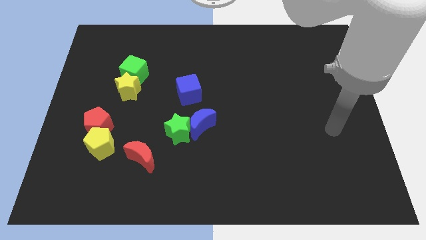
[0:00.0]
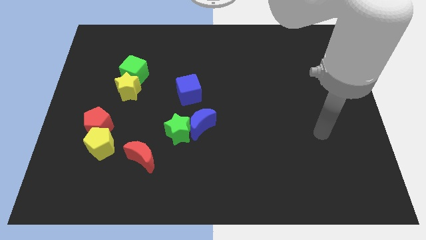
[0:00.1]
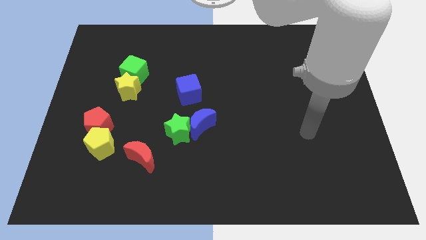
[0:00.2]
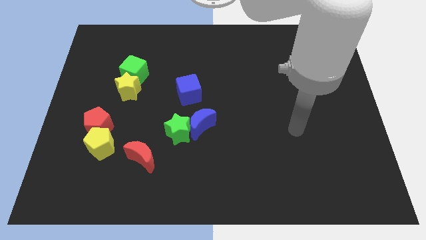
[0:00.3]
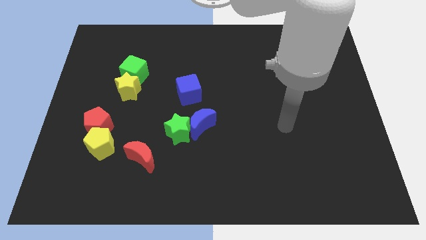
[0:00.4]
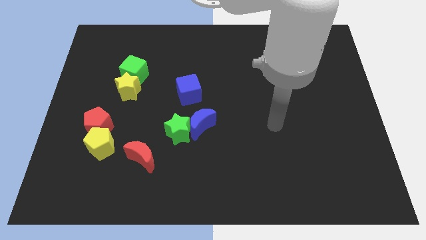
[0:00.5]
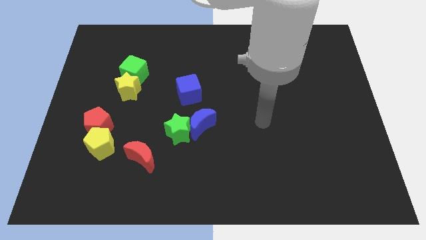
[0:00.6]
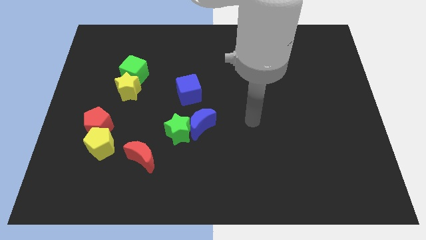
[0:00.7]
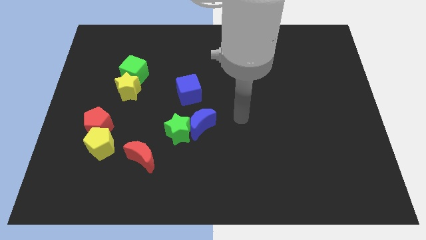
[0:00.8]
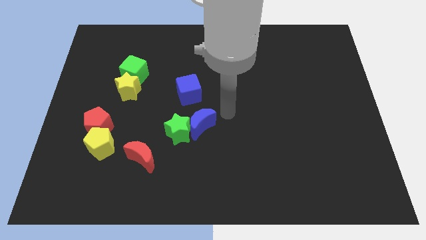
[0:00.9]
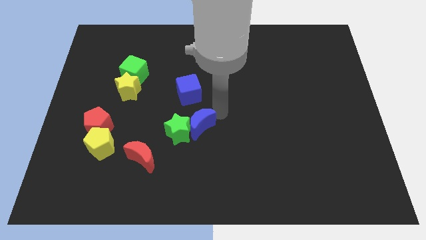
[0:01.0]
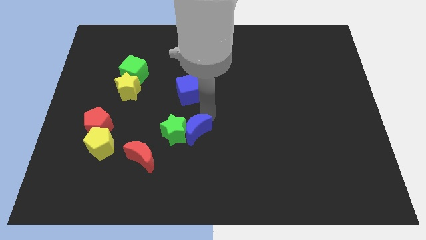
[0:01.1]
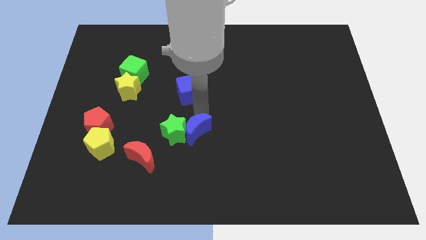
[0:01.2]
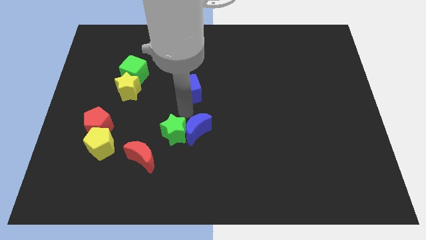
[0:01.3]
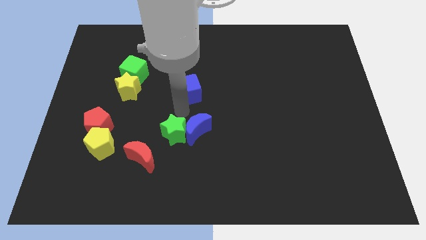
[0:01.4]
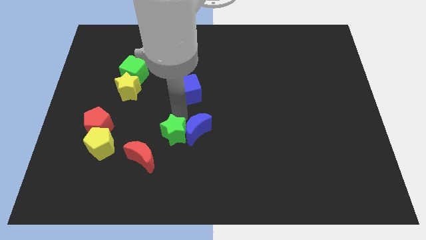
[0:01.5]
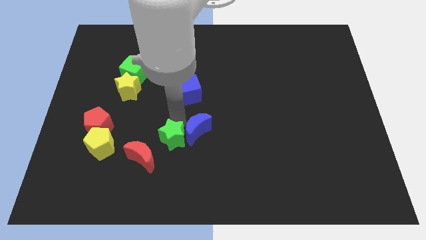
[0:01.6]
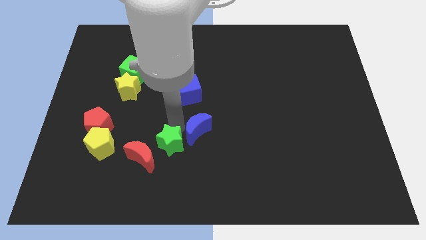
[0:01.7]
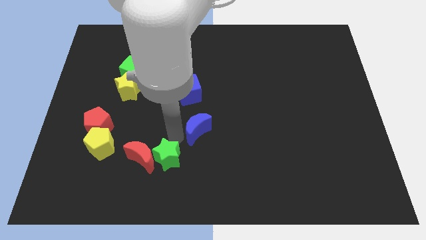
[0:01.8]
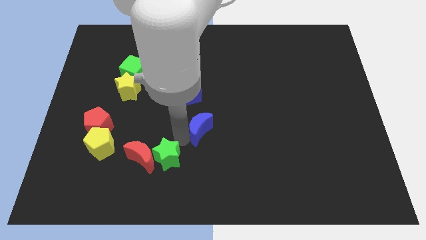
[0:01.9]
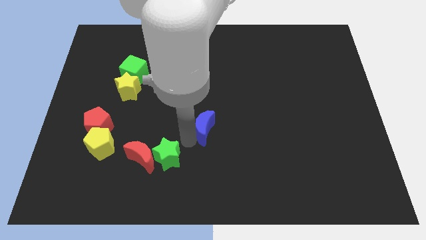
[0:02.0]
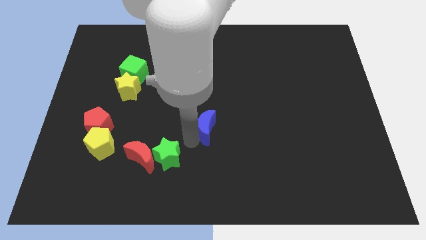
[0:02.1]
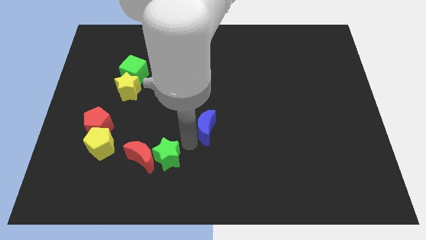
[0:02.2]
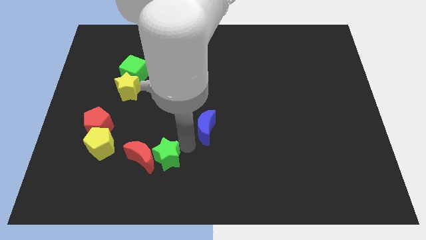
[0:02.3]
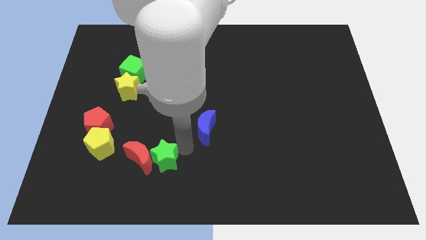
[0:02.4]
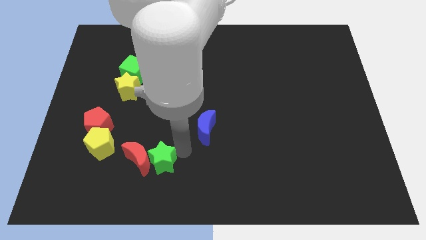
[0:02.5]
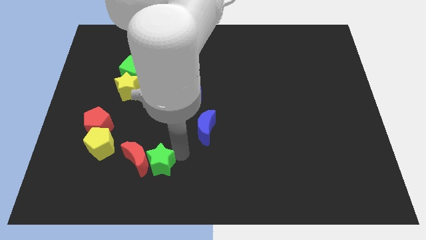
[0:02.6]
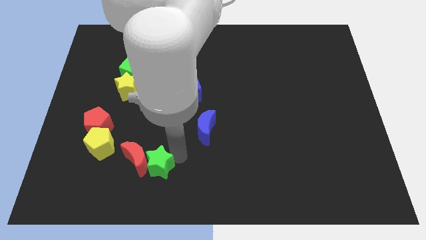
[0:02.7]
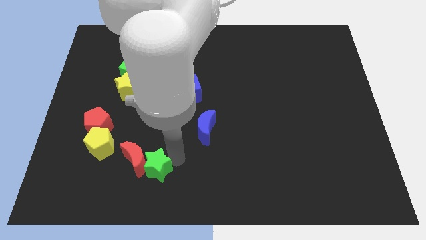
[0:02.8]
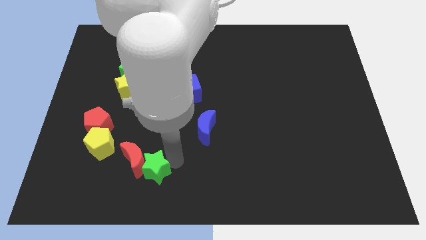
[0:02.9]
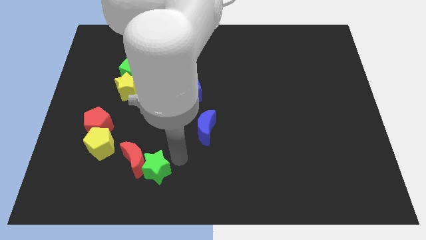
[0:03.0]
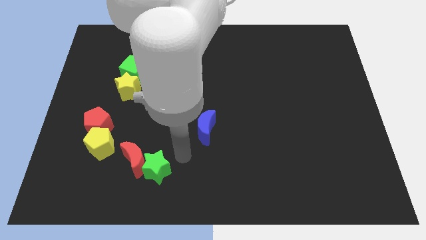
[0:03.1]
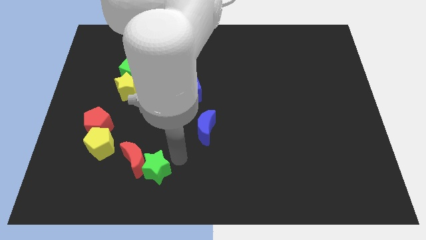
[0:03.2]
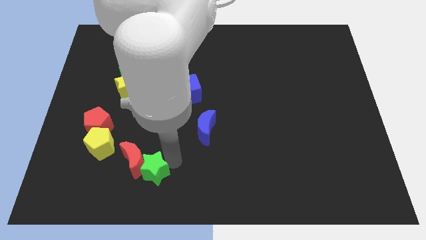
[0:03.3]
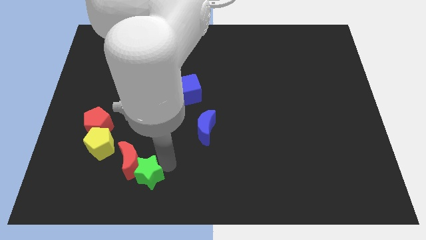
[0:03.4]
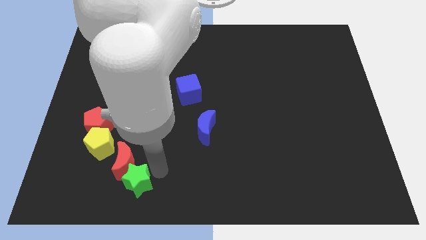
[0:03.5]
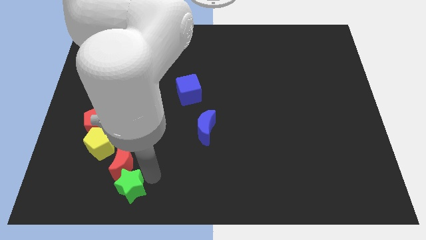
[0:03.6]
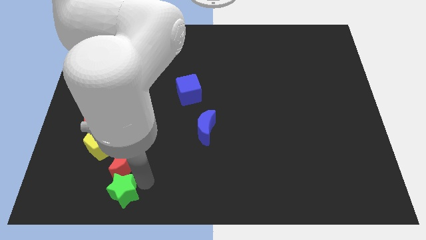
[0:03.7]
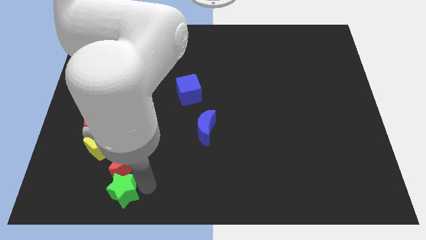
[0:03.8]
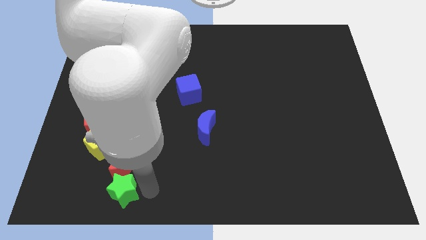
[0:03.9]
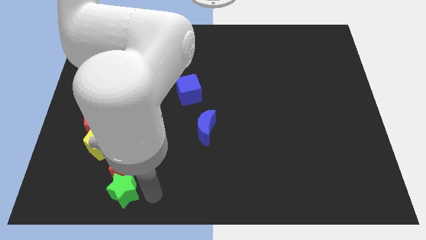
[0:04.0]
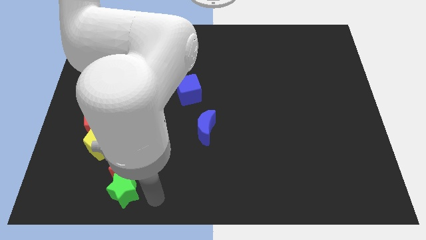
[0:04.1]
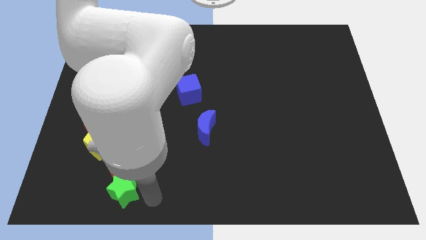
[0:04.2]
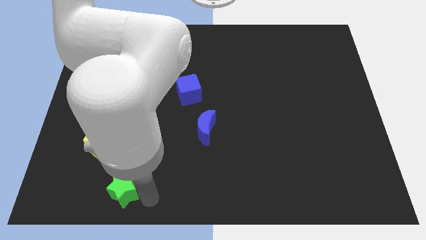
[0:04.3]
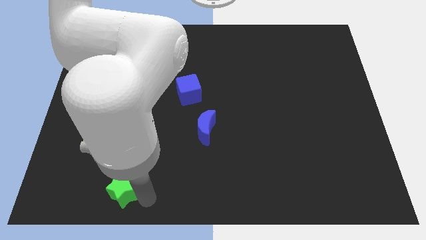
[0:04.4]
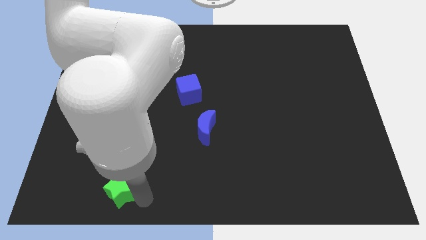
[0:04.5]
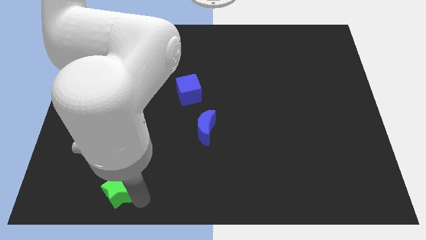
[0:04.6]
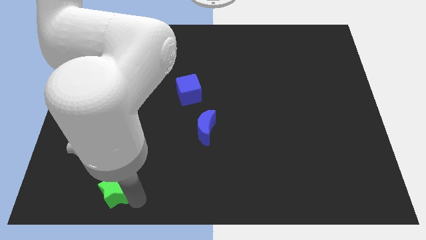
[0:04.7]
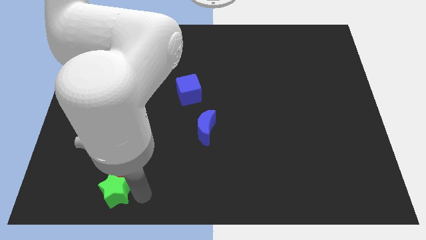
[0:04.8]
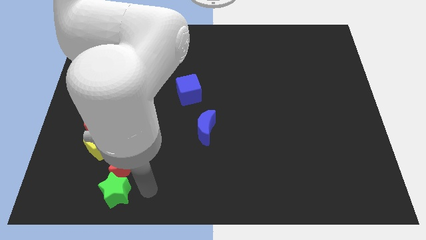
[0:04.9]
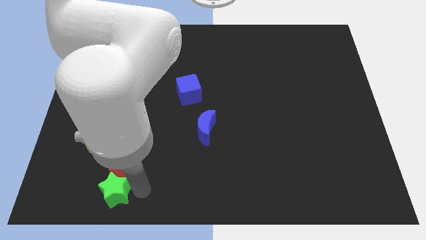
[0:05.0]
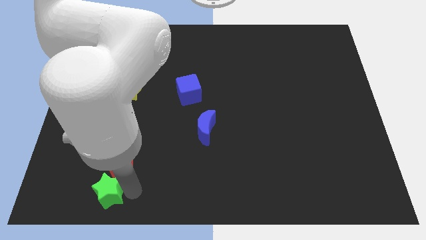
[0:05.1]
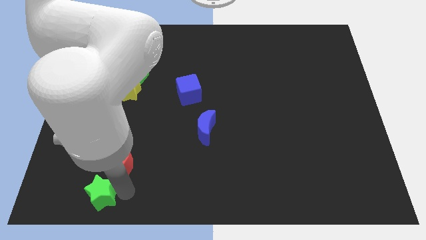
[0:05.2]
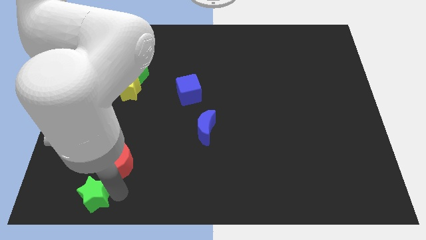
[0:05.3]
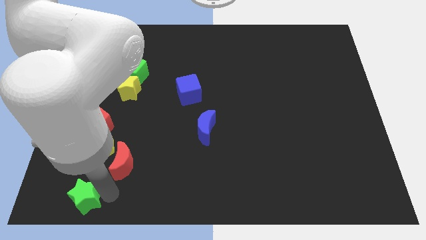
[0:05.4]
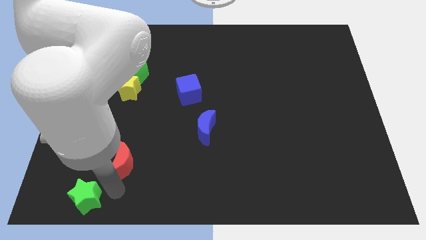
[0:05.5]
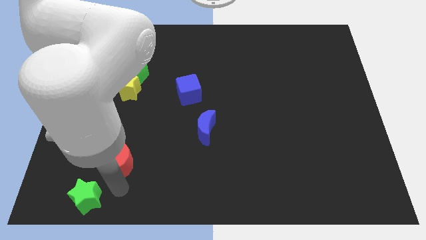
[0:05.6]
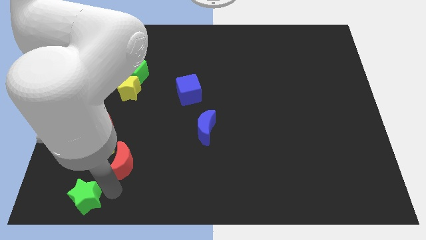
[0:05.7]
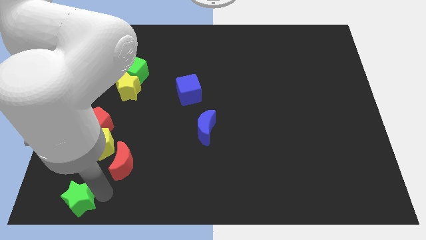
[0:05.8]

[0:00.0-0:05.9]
push the green star to the bottom left of the board

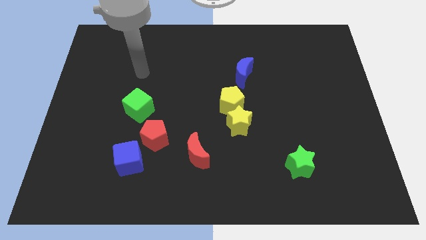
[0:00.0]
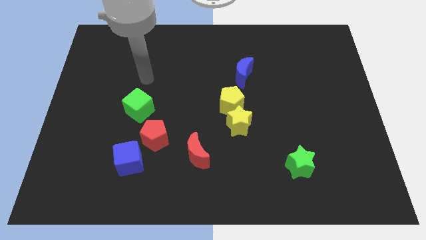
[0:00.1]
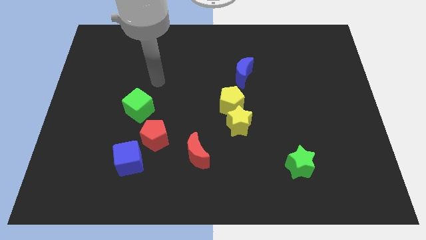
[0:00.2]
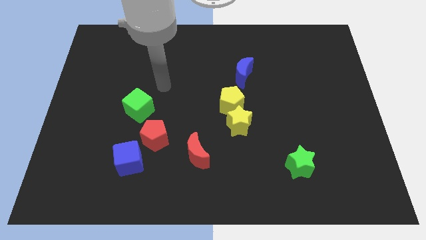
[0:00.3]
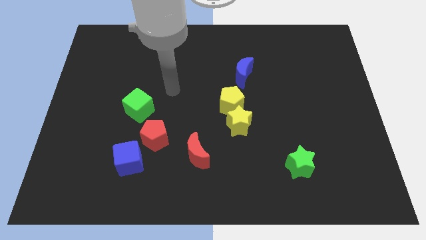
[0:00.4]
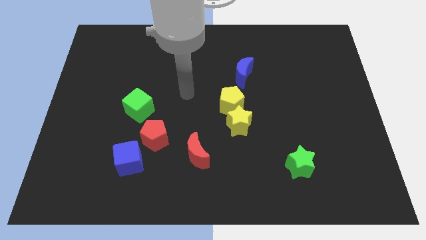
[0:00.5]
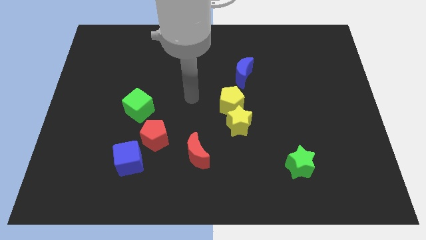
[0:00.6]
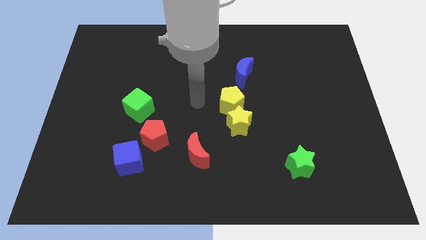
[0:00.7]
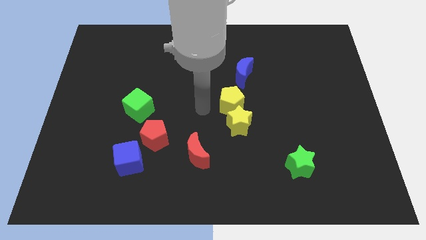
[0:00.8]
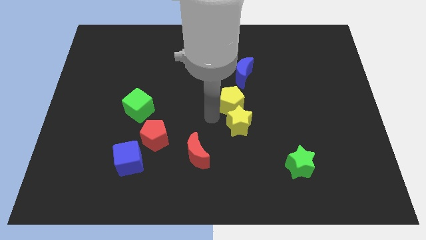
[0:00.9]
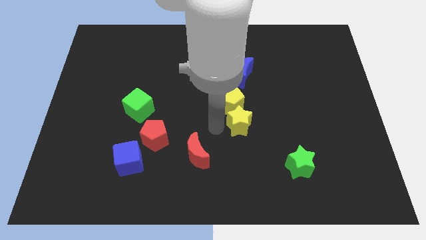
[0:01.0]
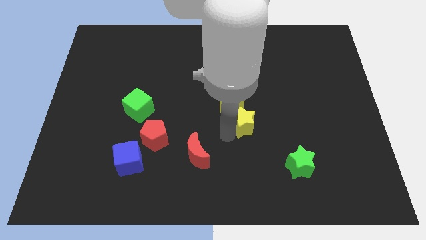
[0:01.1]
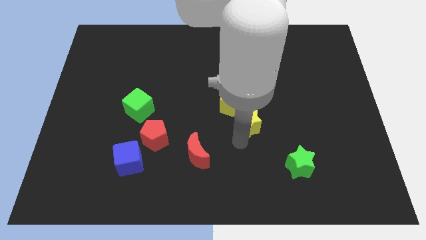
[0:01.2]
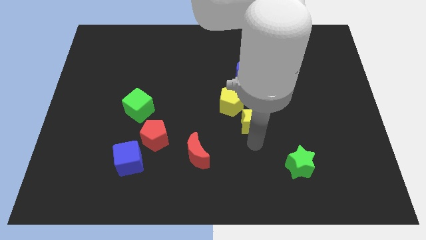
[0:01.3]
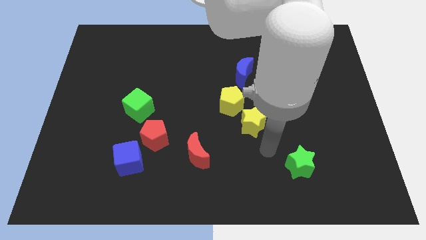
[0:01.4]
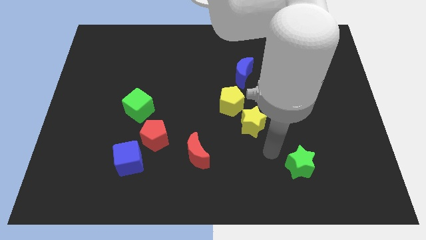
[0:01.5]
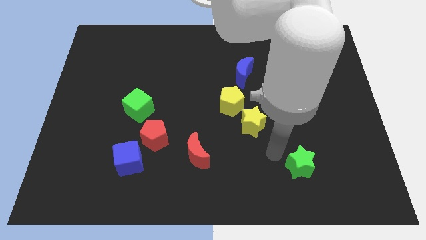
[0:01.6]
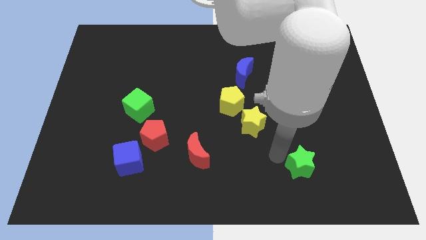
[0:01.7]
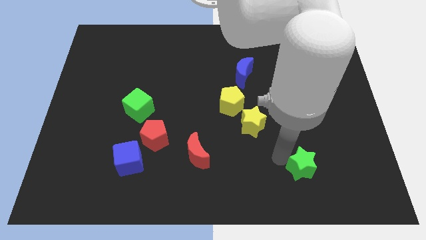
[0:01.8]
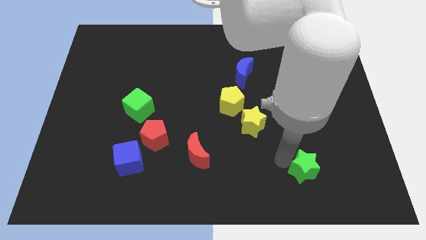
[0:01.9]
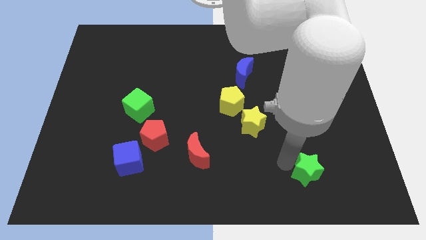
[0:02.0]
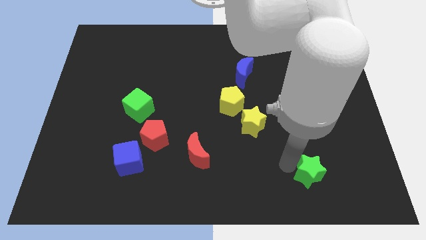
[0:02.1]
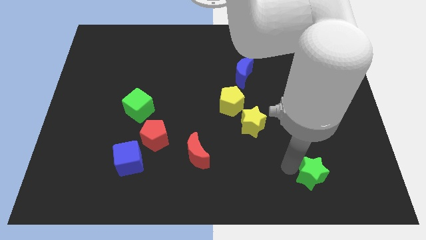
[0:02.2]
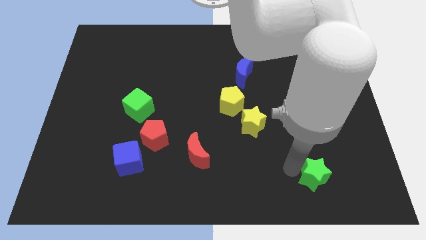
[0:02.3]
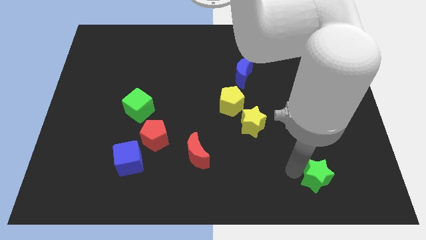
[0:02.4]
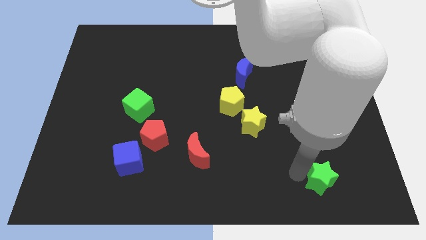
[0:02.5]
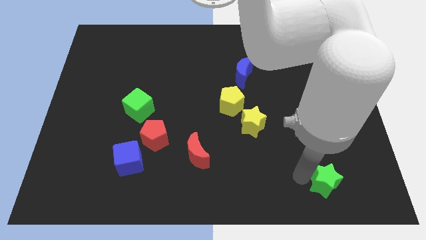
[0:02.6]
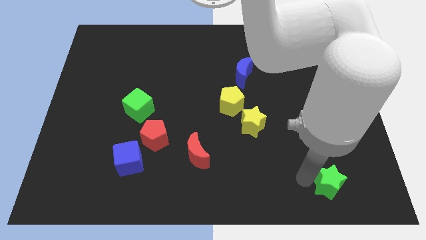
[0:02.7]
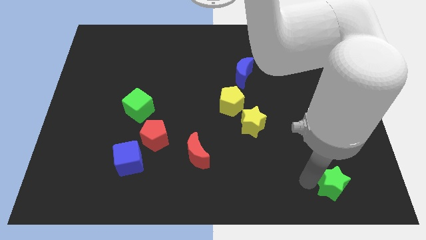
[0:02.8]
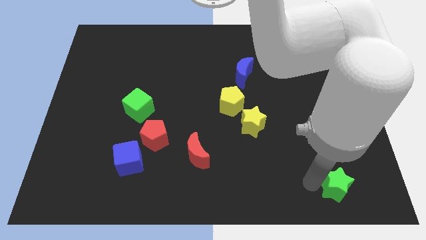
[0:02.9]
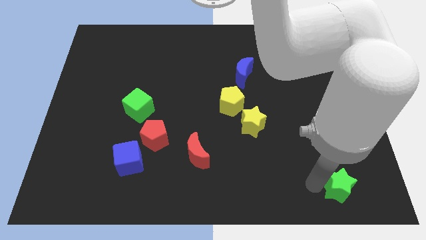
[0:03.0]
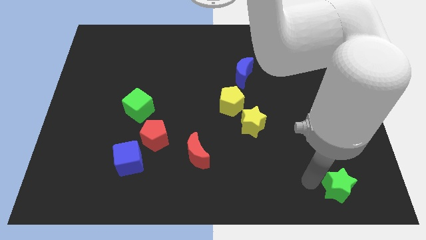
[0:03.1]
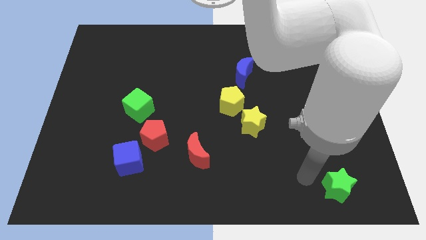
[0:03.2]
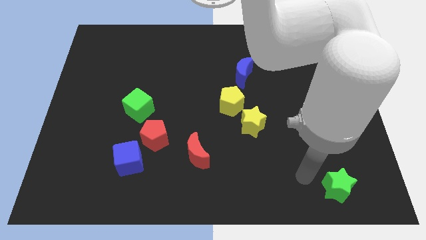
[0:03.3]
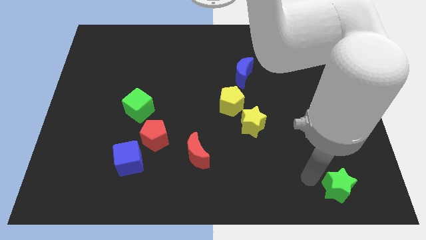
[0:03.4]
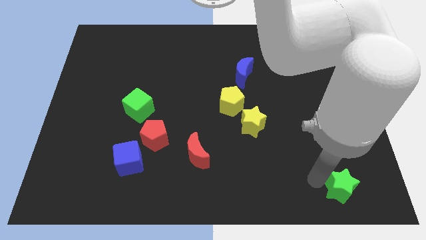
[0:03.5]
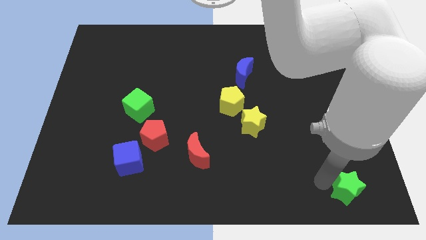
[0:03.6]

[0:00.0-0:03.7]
move the green star to the bottom right corner
